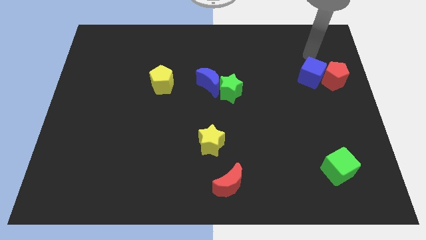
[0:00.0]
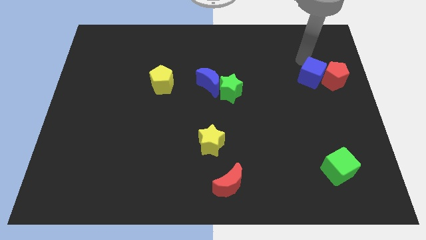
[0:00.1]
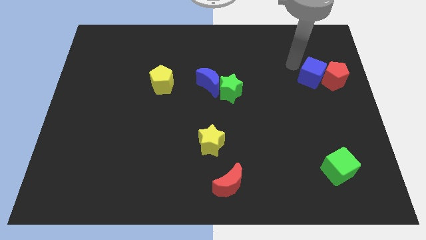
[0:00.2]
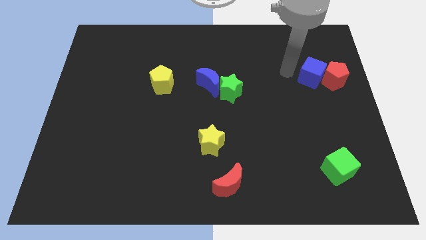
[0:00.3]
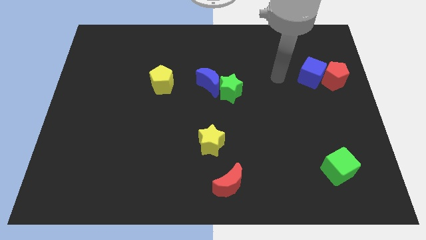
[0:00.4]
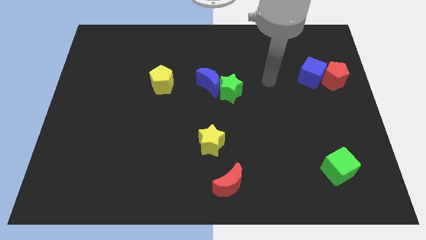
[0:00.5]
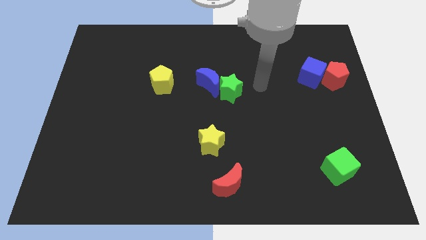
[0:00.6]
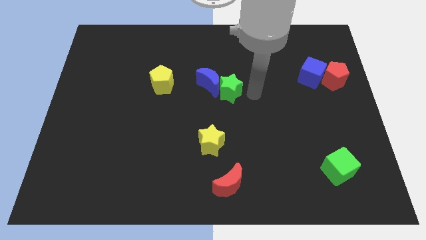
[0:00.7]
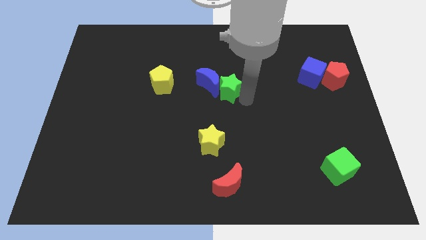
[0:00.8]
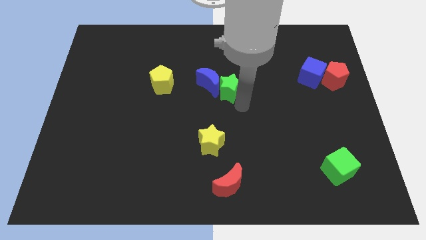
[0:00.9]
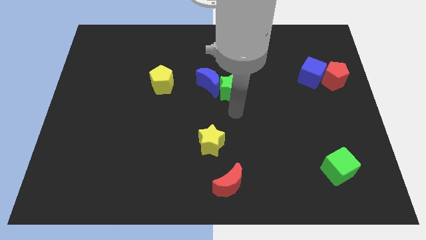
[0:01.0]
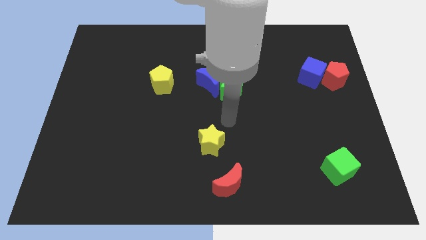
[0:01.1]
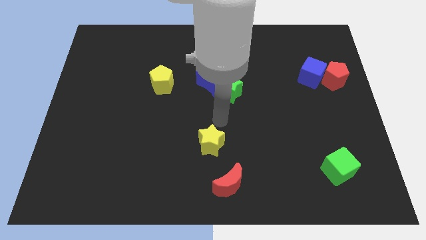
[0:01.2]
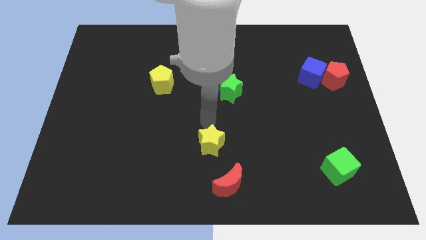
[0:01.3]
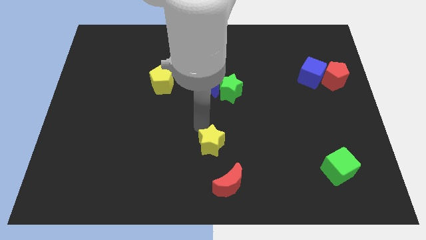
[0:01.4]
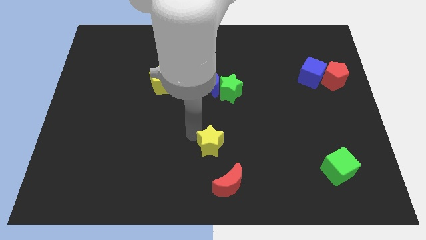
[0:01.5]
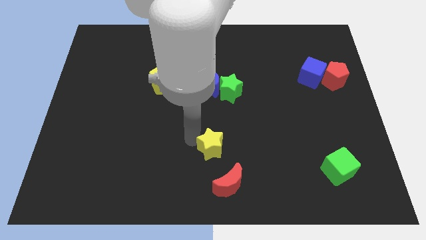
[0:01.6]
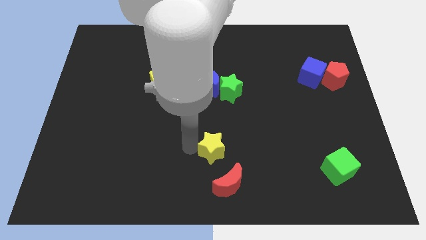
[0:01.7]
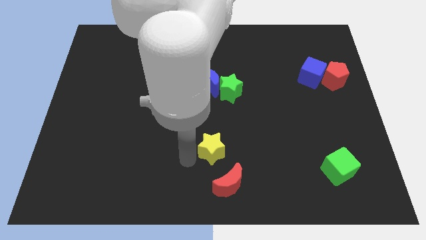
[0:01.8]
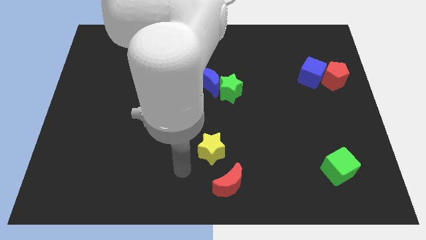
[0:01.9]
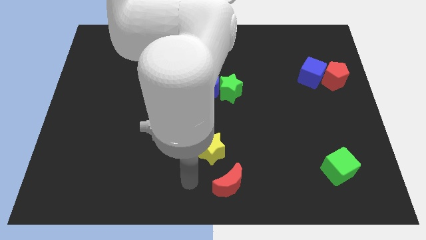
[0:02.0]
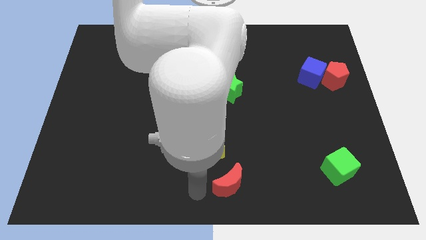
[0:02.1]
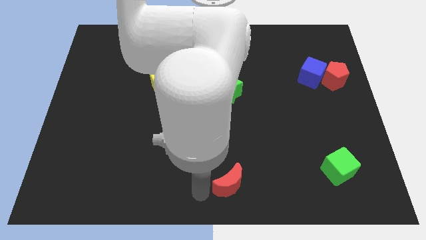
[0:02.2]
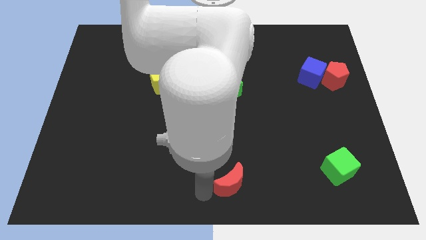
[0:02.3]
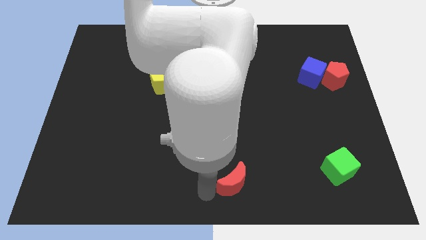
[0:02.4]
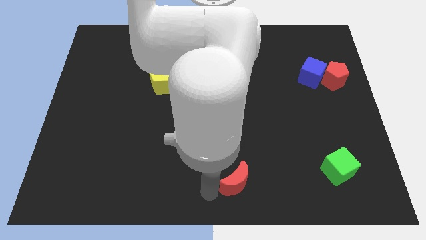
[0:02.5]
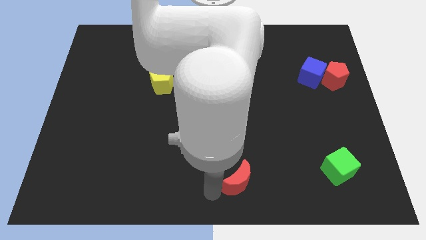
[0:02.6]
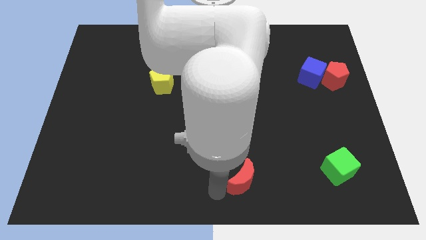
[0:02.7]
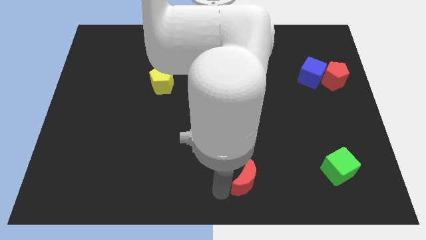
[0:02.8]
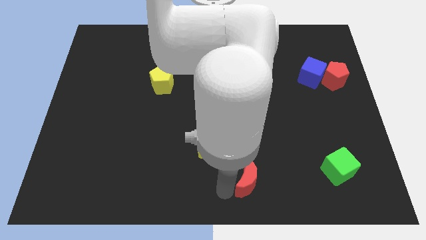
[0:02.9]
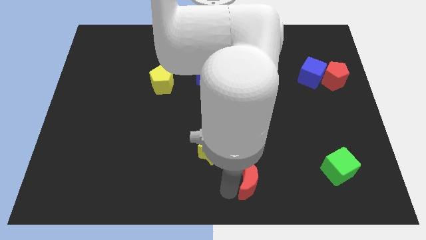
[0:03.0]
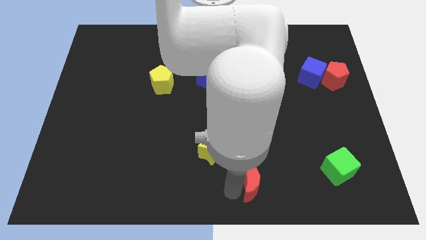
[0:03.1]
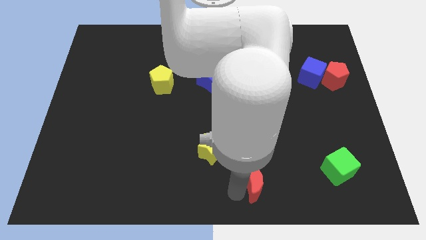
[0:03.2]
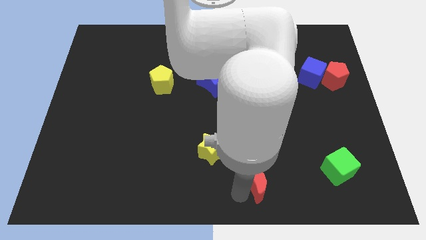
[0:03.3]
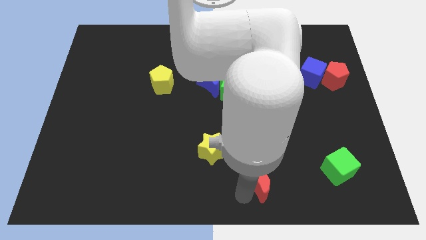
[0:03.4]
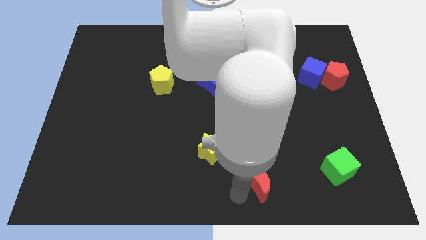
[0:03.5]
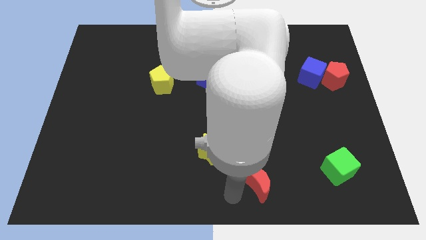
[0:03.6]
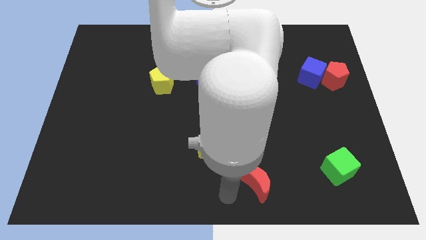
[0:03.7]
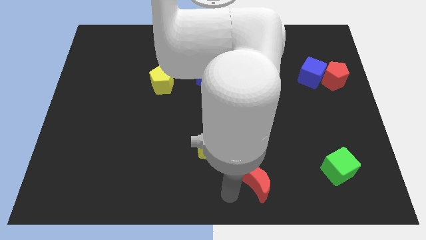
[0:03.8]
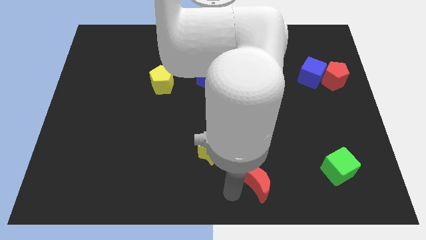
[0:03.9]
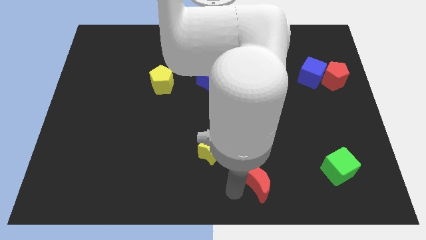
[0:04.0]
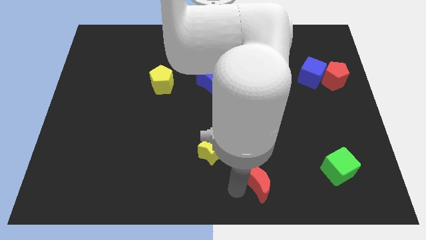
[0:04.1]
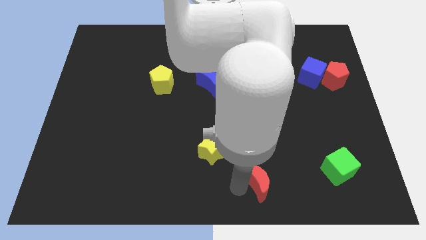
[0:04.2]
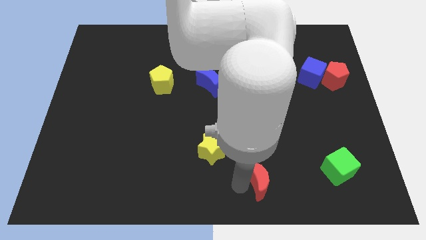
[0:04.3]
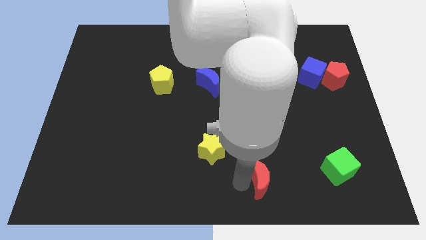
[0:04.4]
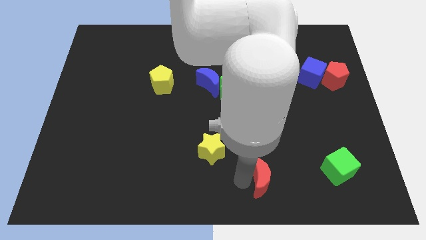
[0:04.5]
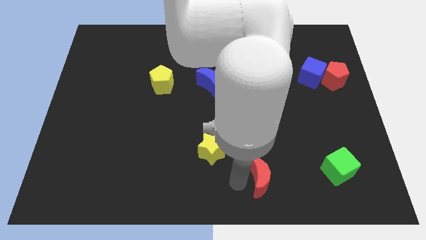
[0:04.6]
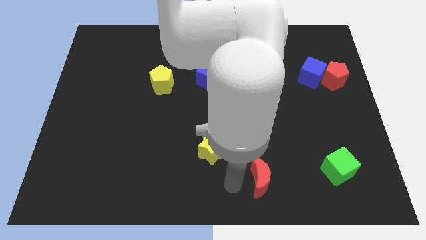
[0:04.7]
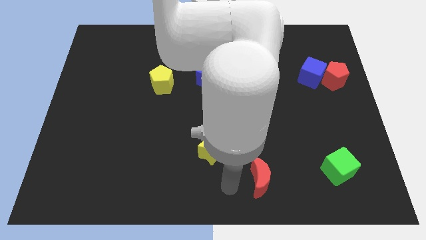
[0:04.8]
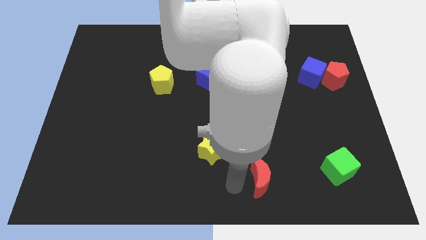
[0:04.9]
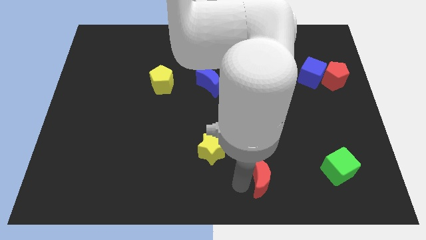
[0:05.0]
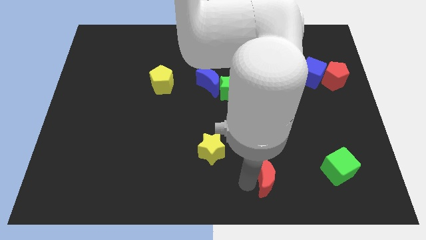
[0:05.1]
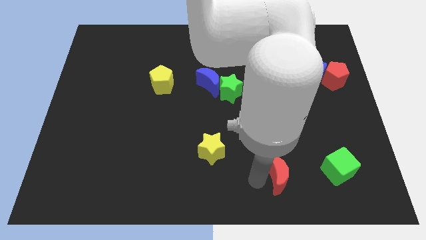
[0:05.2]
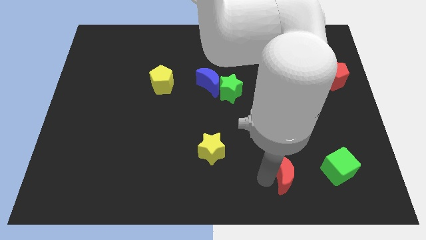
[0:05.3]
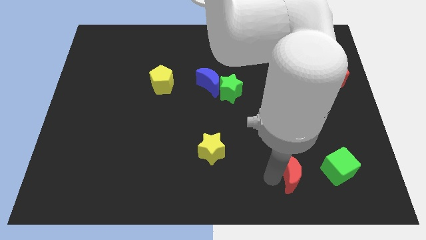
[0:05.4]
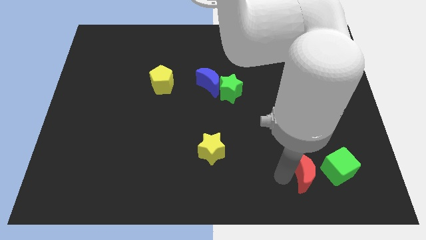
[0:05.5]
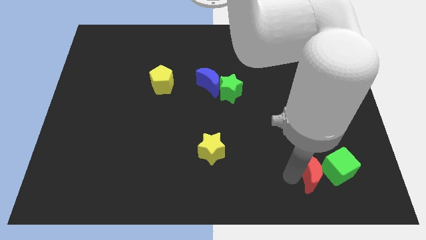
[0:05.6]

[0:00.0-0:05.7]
put the red moon close to the green cube

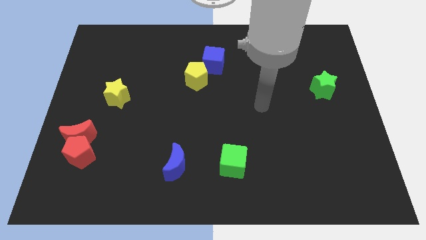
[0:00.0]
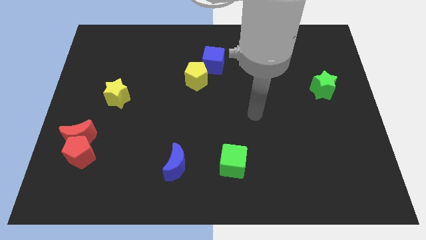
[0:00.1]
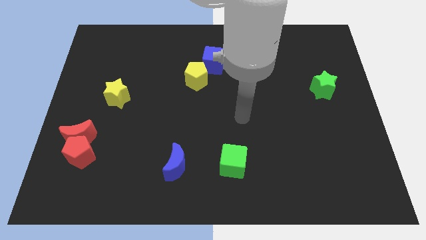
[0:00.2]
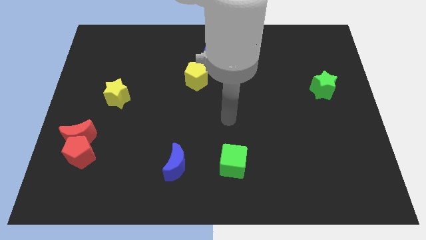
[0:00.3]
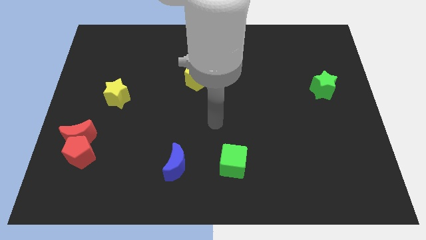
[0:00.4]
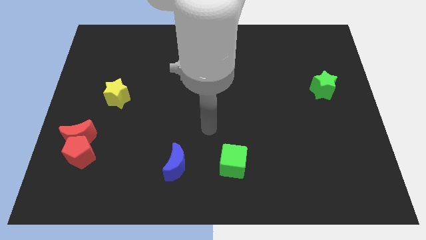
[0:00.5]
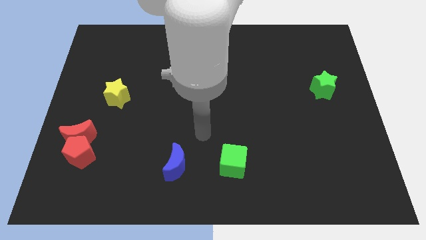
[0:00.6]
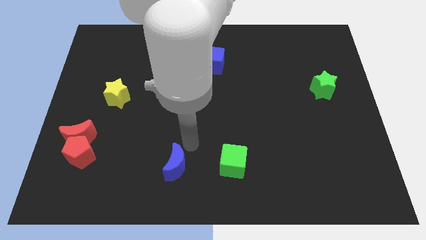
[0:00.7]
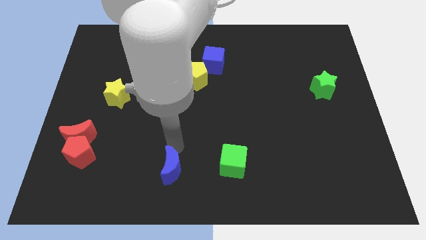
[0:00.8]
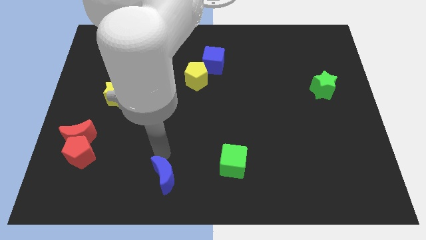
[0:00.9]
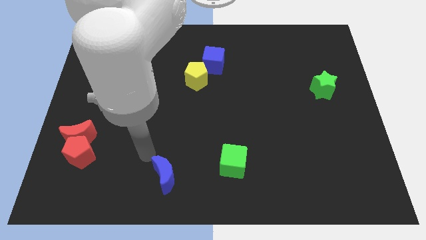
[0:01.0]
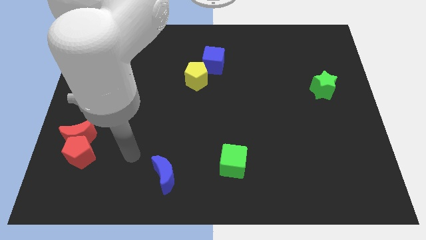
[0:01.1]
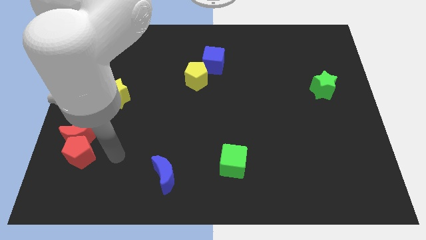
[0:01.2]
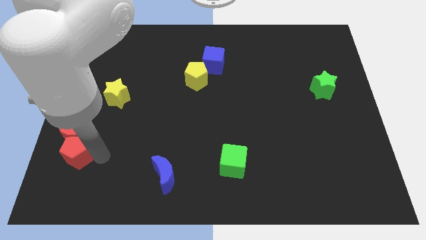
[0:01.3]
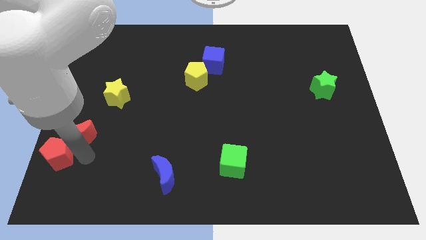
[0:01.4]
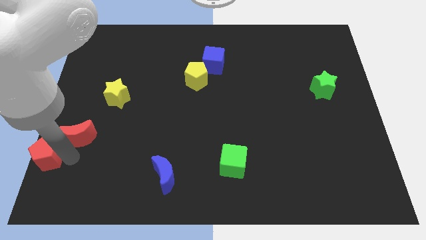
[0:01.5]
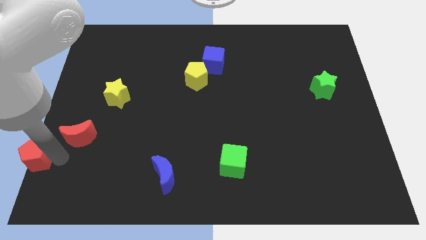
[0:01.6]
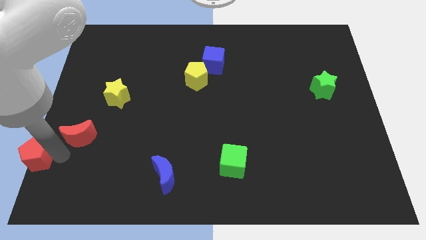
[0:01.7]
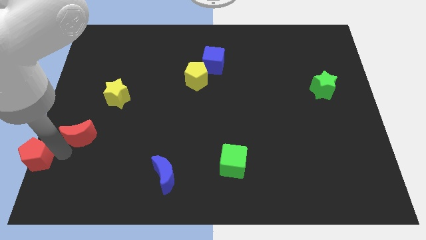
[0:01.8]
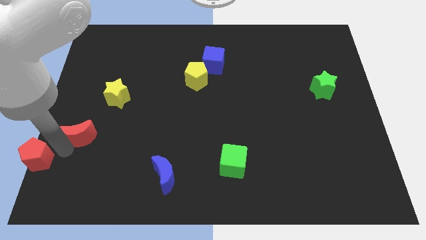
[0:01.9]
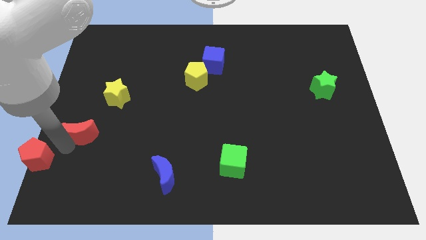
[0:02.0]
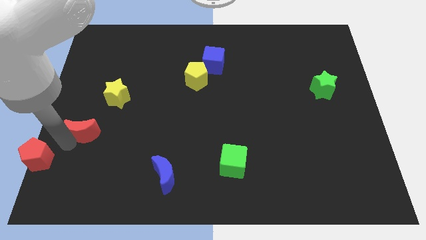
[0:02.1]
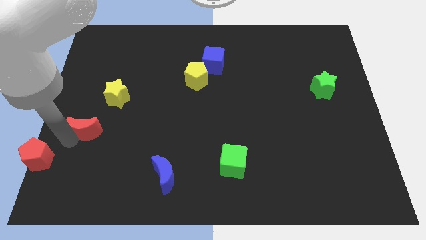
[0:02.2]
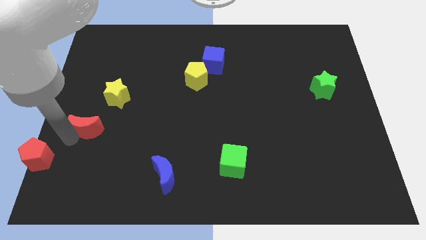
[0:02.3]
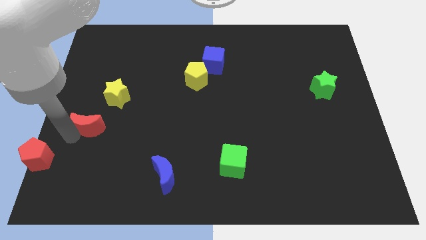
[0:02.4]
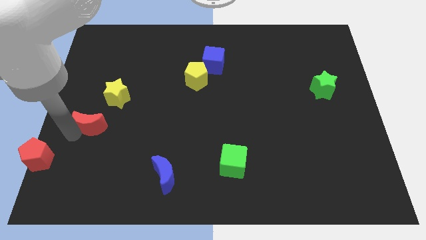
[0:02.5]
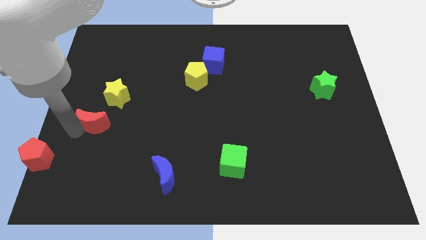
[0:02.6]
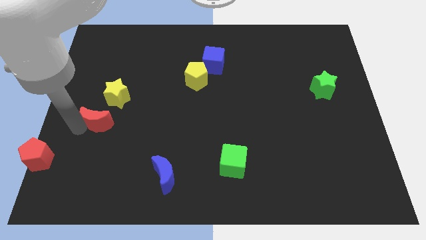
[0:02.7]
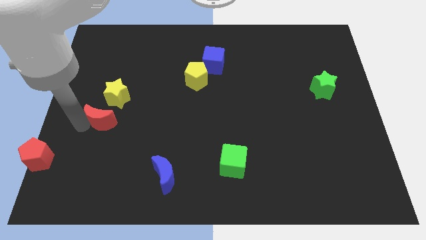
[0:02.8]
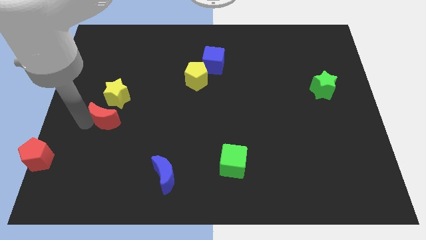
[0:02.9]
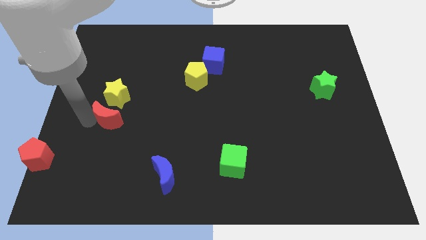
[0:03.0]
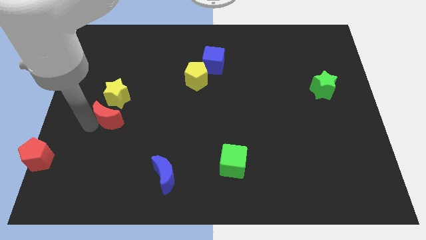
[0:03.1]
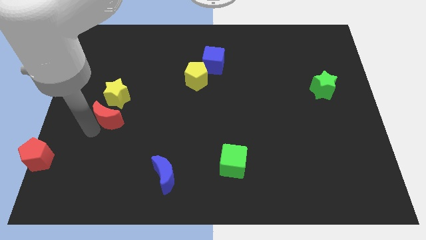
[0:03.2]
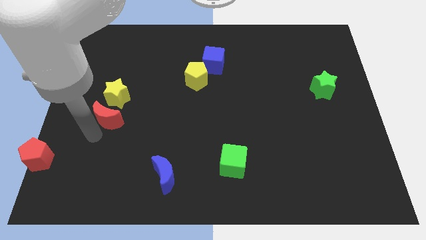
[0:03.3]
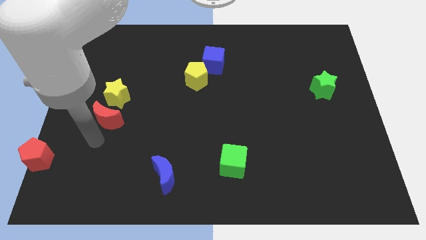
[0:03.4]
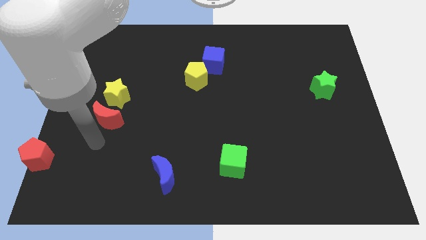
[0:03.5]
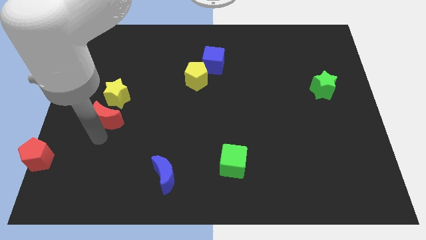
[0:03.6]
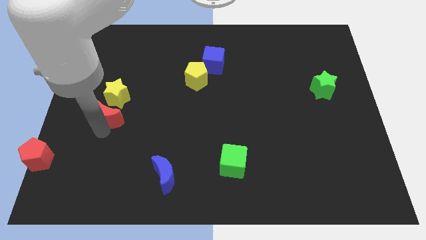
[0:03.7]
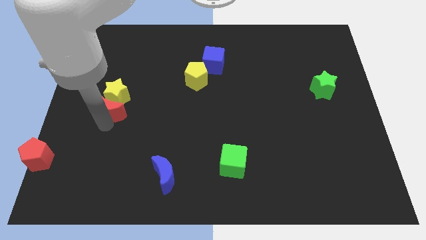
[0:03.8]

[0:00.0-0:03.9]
put the red moon next to the yellow star
